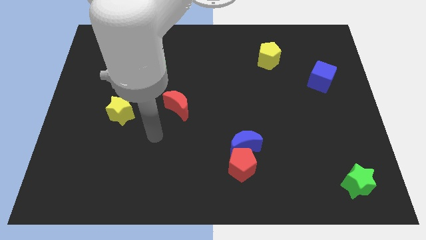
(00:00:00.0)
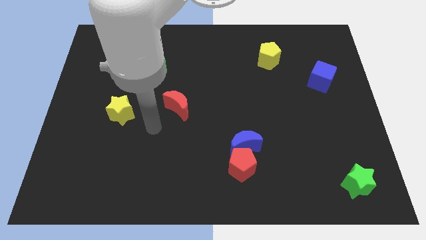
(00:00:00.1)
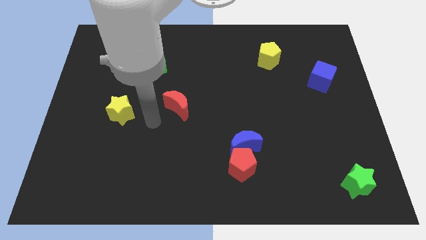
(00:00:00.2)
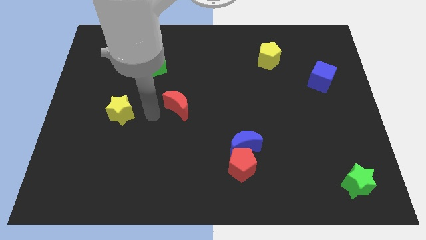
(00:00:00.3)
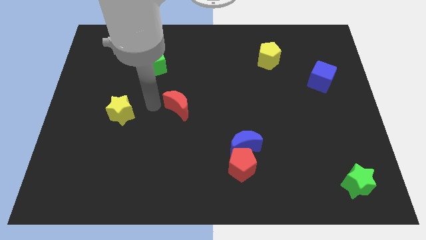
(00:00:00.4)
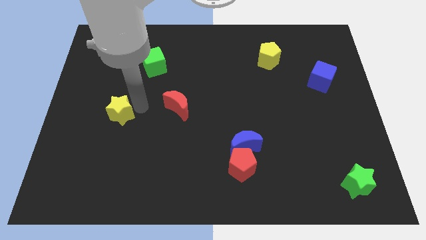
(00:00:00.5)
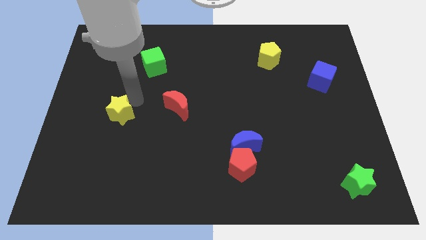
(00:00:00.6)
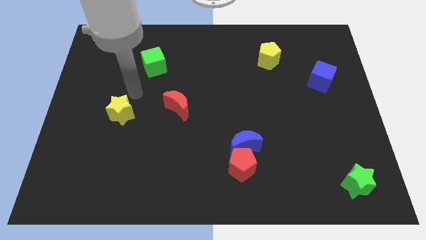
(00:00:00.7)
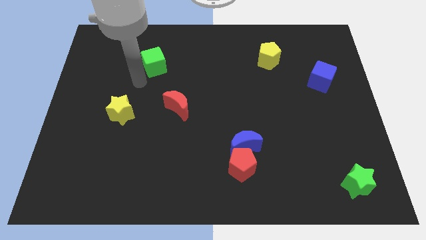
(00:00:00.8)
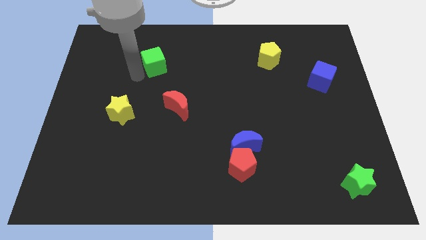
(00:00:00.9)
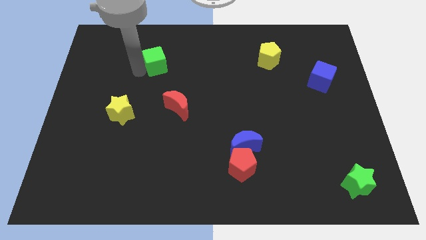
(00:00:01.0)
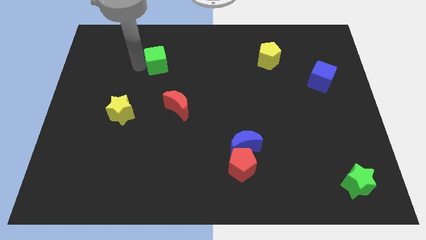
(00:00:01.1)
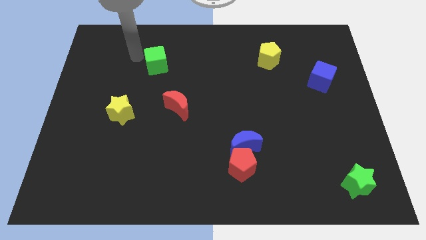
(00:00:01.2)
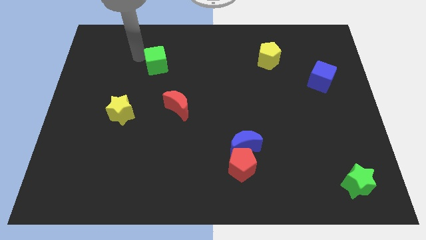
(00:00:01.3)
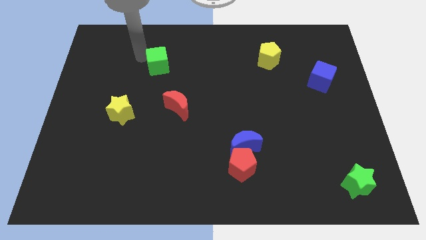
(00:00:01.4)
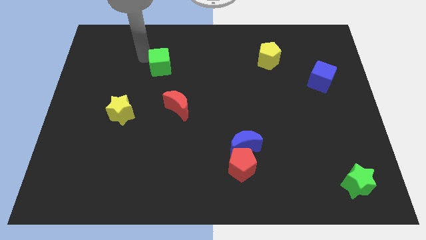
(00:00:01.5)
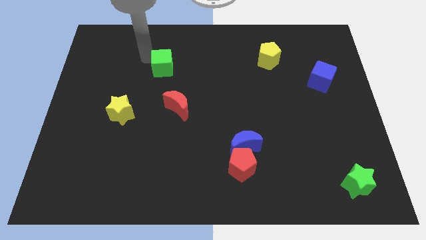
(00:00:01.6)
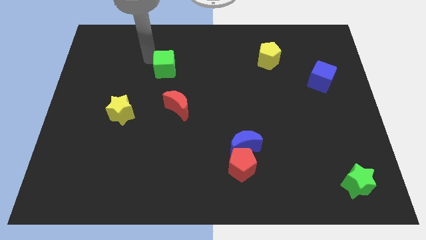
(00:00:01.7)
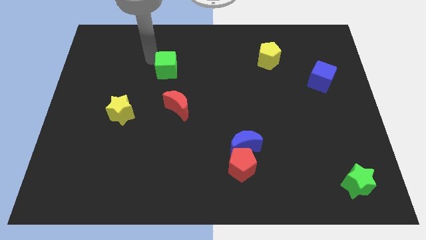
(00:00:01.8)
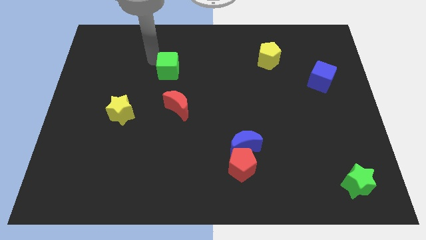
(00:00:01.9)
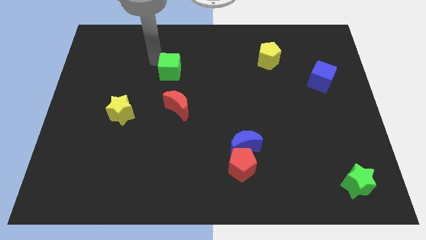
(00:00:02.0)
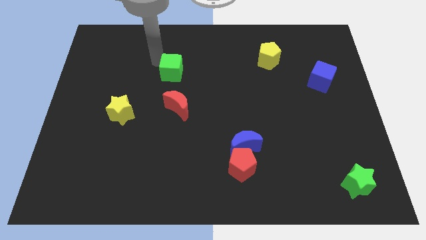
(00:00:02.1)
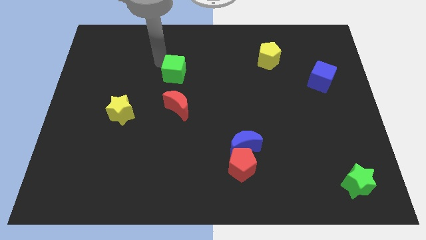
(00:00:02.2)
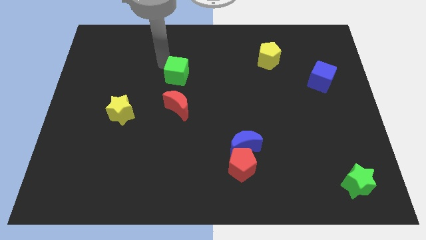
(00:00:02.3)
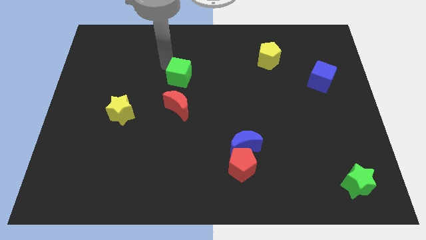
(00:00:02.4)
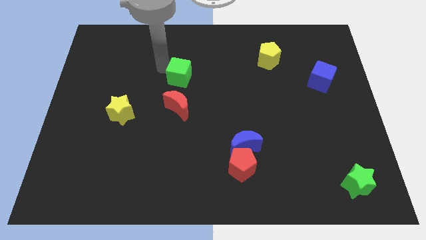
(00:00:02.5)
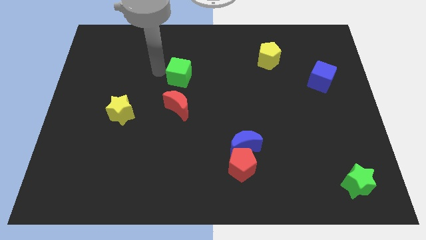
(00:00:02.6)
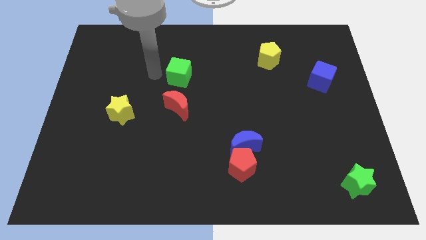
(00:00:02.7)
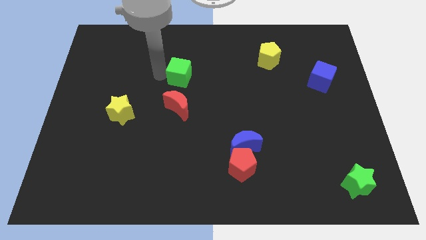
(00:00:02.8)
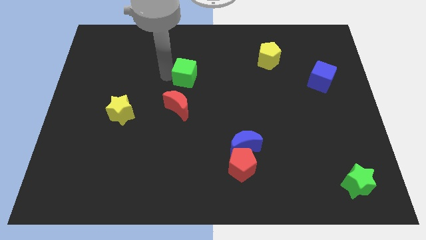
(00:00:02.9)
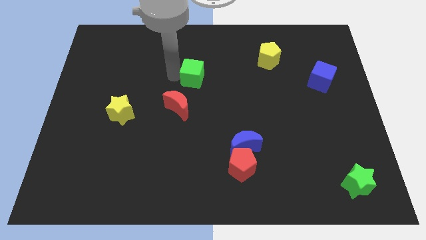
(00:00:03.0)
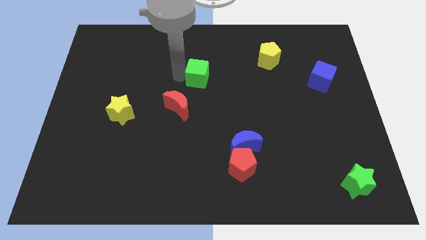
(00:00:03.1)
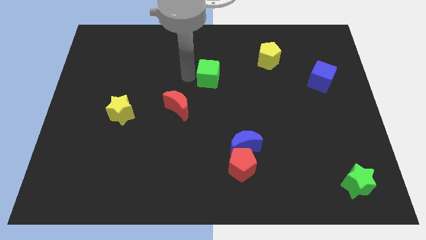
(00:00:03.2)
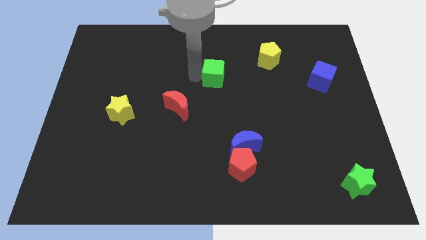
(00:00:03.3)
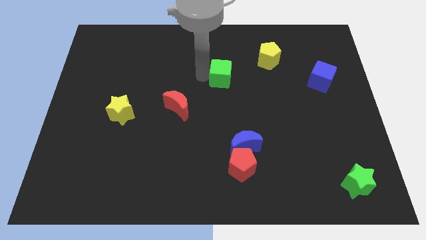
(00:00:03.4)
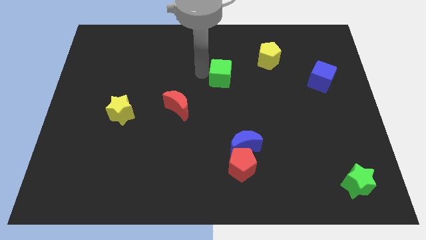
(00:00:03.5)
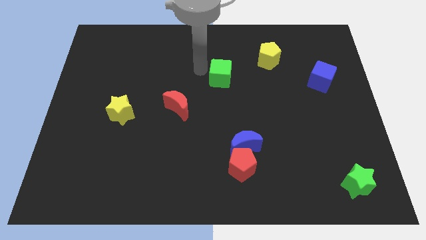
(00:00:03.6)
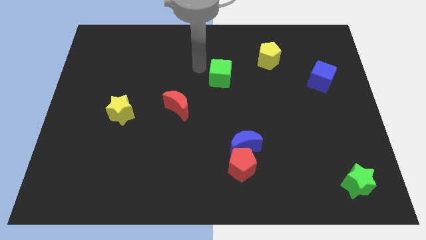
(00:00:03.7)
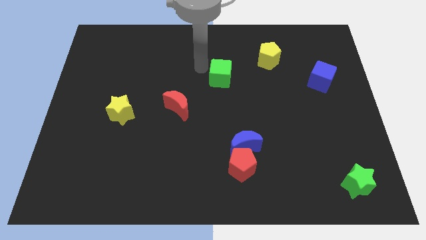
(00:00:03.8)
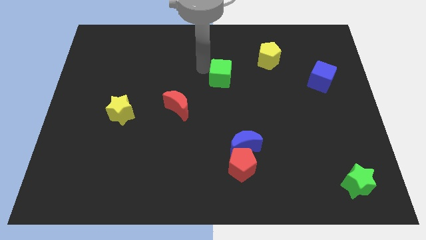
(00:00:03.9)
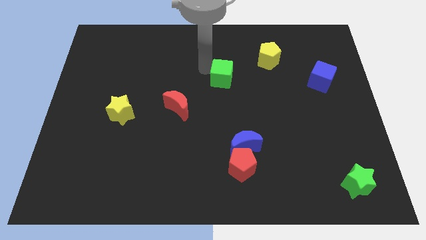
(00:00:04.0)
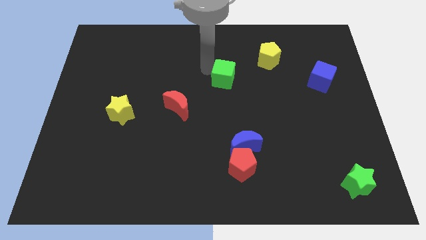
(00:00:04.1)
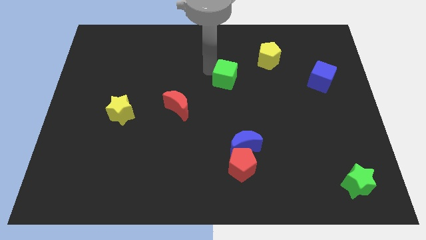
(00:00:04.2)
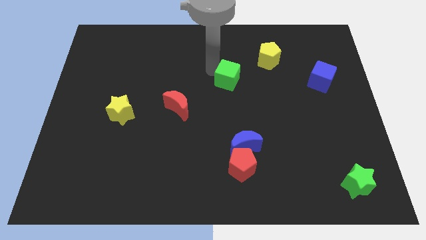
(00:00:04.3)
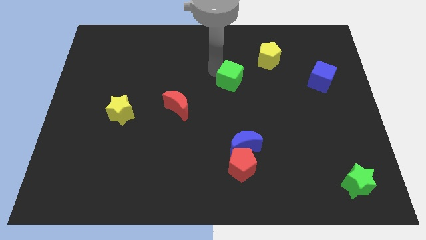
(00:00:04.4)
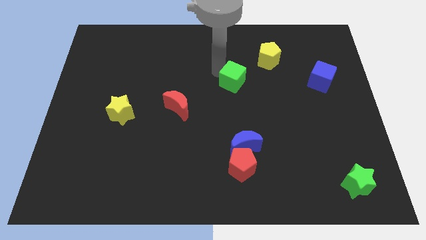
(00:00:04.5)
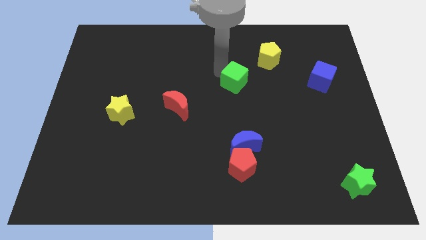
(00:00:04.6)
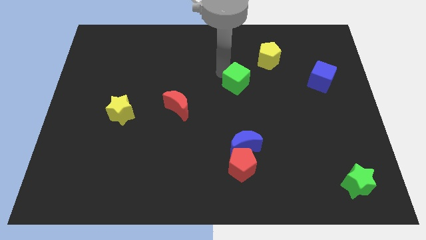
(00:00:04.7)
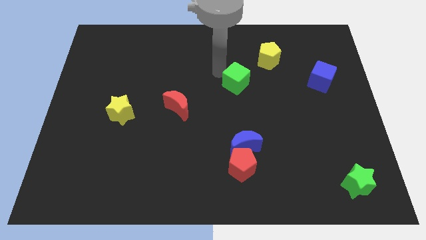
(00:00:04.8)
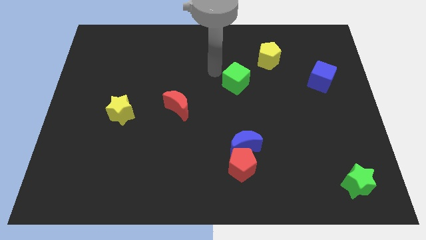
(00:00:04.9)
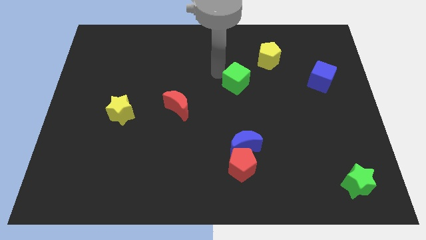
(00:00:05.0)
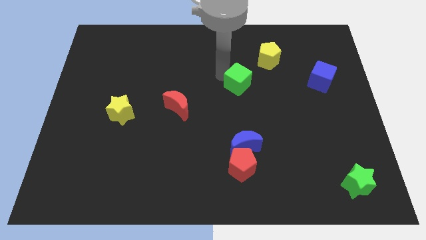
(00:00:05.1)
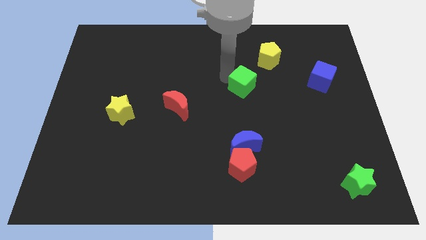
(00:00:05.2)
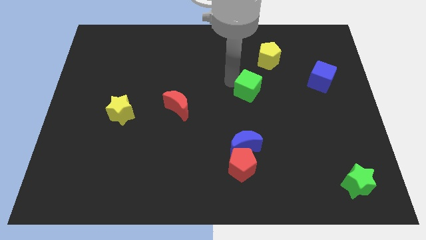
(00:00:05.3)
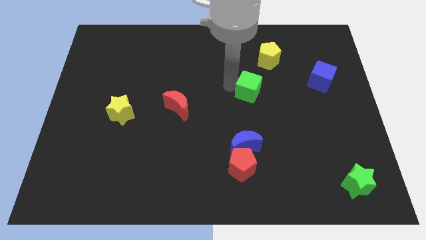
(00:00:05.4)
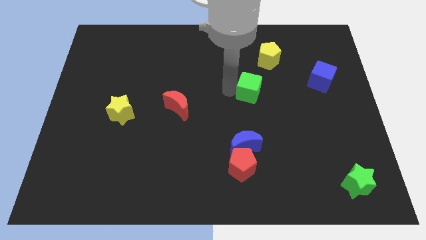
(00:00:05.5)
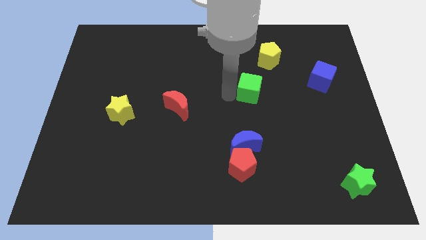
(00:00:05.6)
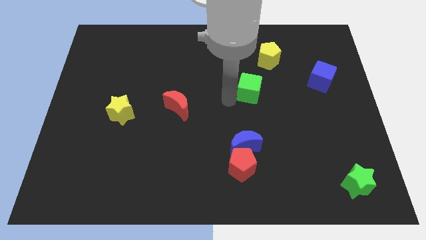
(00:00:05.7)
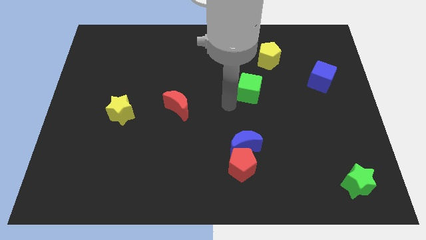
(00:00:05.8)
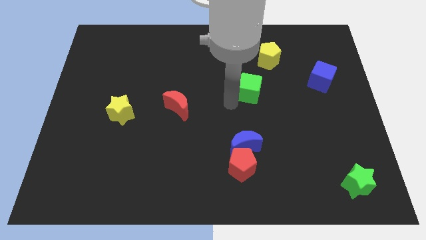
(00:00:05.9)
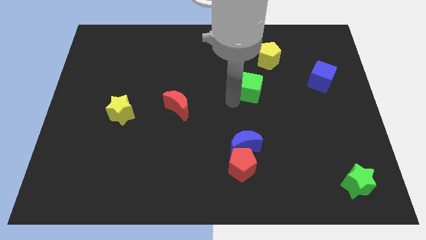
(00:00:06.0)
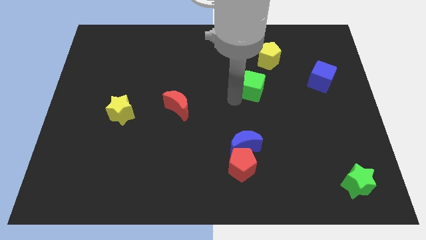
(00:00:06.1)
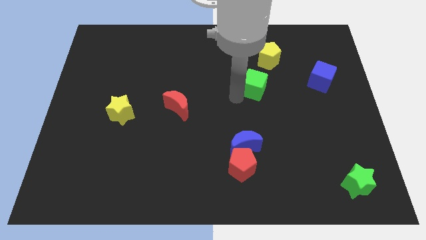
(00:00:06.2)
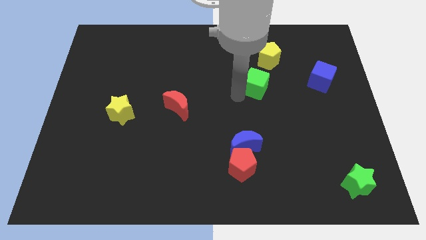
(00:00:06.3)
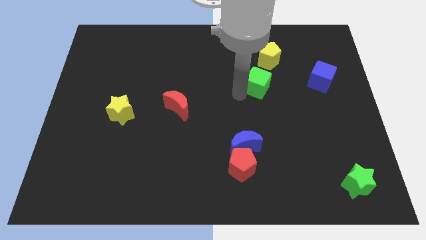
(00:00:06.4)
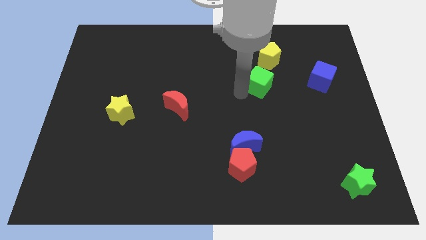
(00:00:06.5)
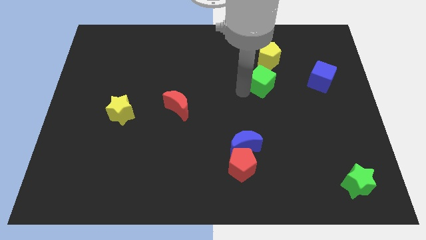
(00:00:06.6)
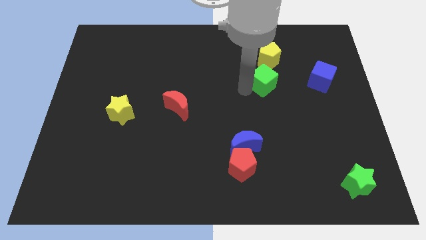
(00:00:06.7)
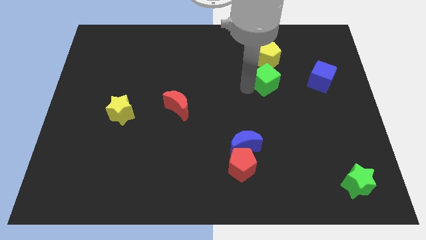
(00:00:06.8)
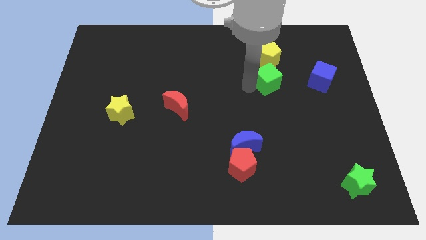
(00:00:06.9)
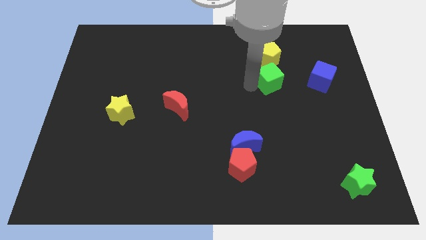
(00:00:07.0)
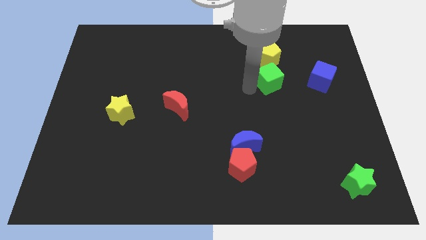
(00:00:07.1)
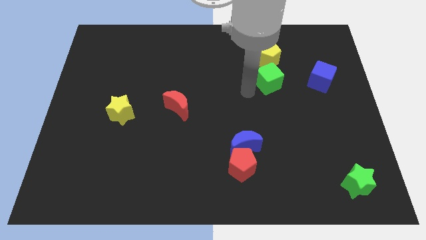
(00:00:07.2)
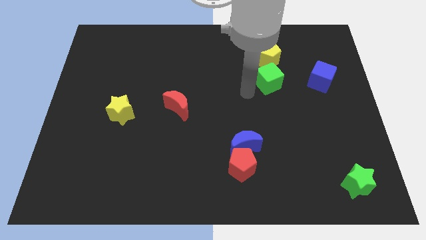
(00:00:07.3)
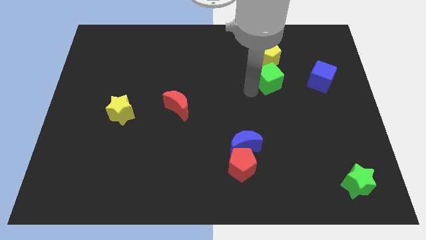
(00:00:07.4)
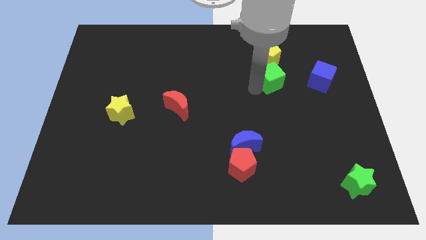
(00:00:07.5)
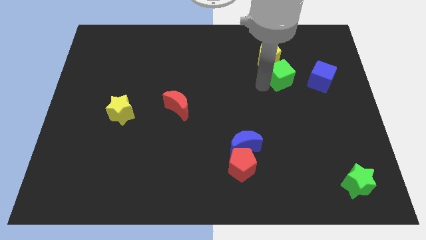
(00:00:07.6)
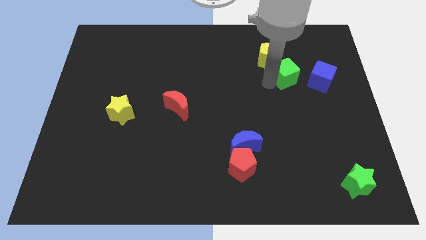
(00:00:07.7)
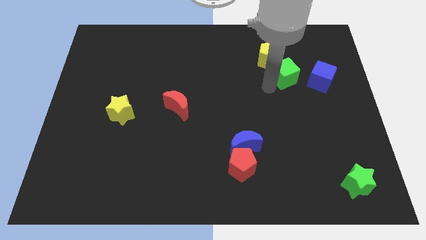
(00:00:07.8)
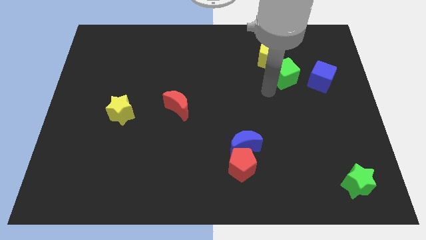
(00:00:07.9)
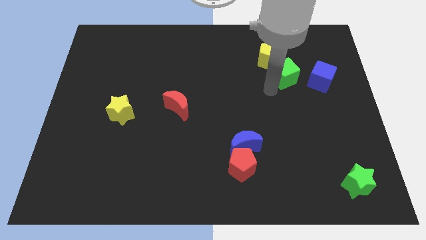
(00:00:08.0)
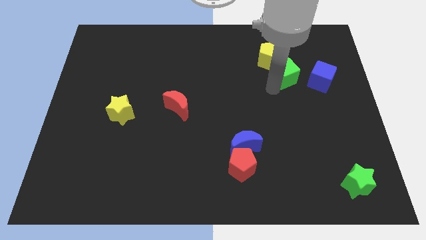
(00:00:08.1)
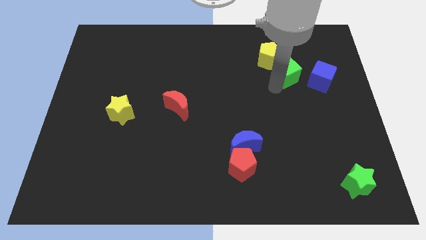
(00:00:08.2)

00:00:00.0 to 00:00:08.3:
put the green cube to the top left of the blue cube
